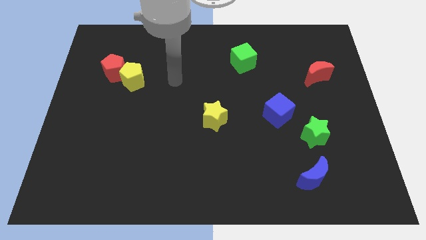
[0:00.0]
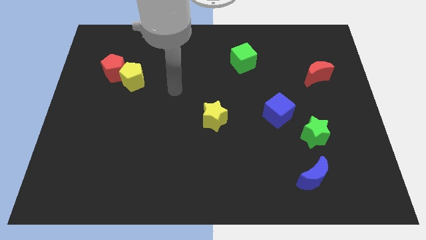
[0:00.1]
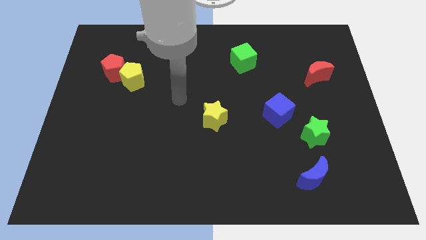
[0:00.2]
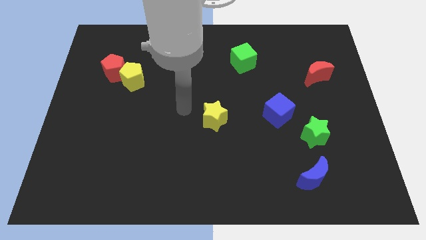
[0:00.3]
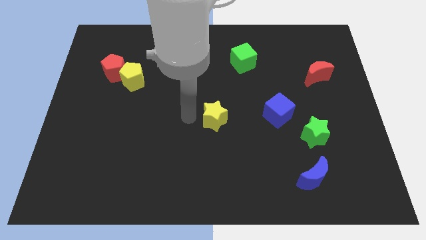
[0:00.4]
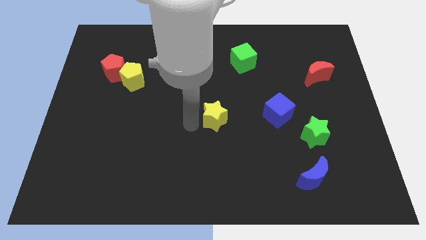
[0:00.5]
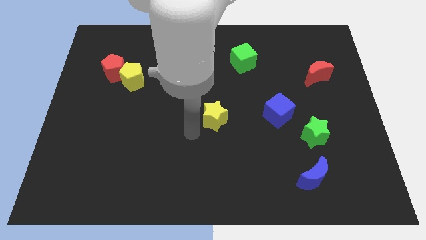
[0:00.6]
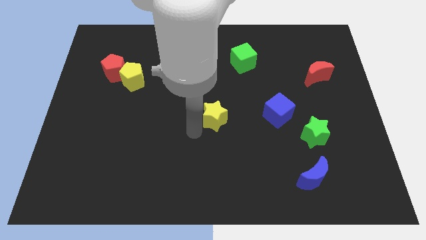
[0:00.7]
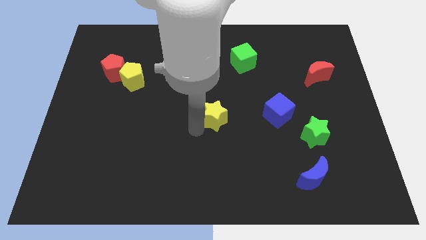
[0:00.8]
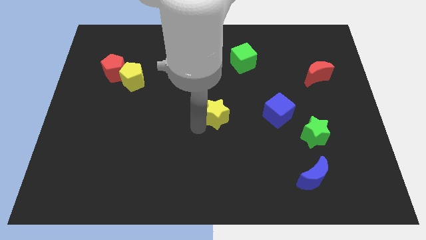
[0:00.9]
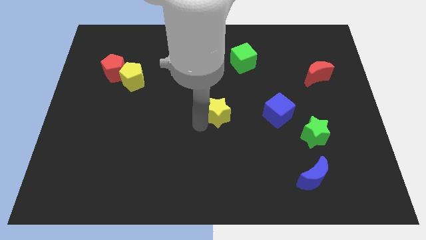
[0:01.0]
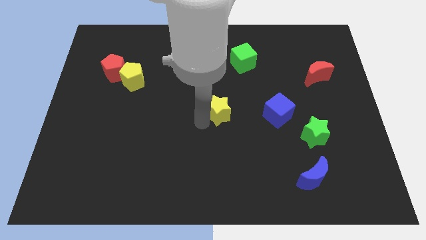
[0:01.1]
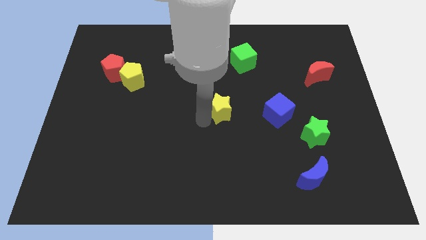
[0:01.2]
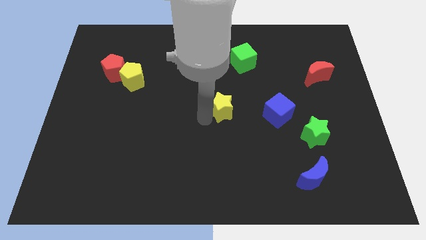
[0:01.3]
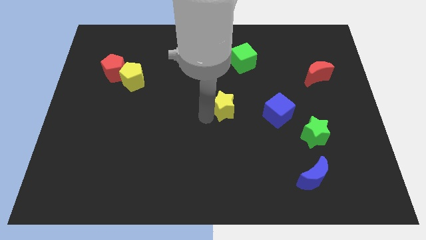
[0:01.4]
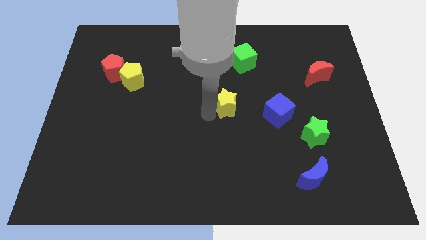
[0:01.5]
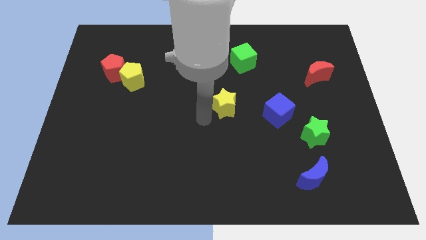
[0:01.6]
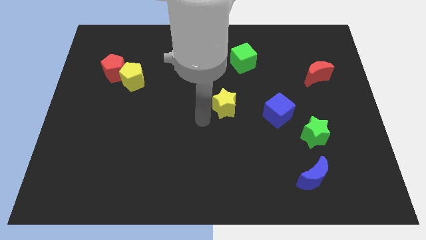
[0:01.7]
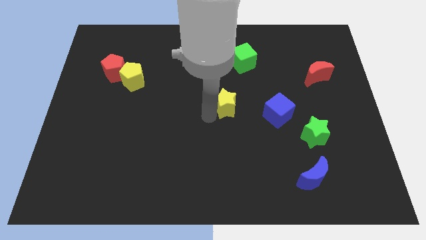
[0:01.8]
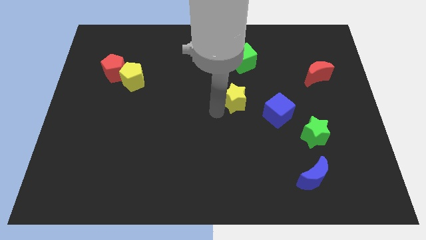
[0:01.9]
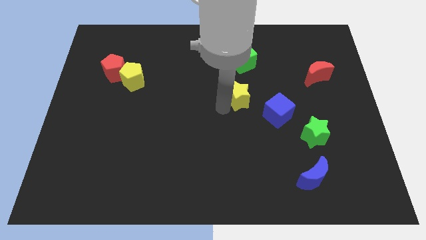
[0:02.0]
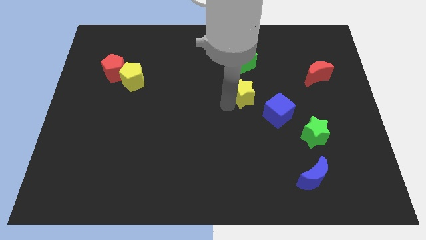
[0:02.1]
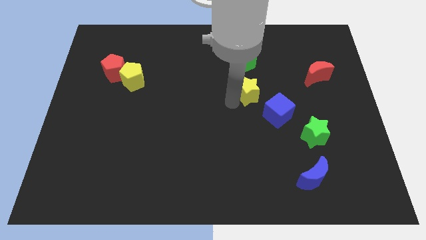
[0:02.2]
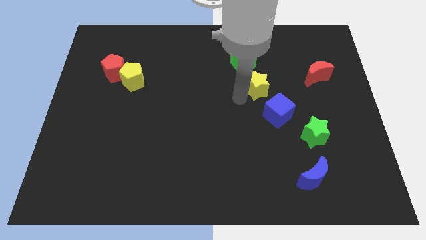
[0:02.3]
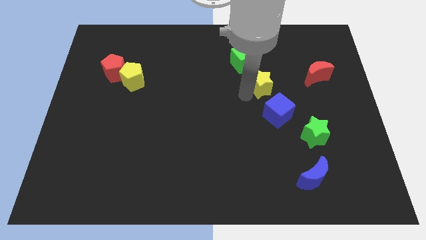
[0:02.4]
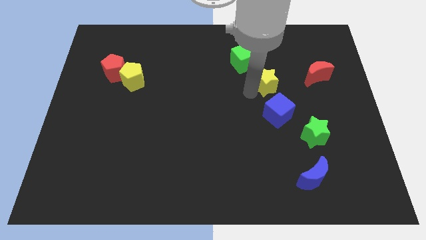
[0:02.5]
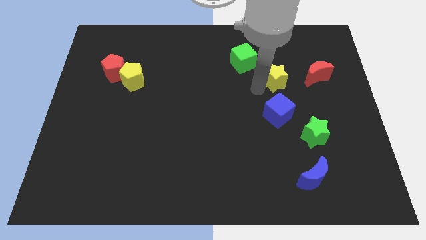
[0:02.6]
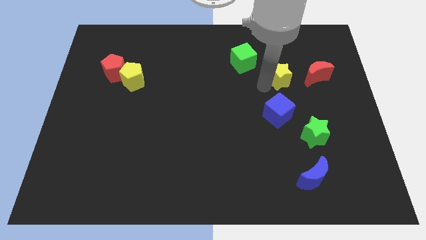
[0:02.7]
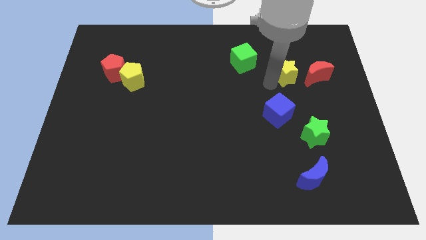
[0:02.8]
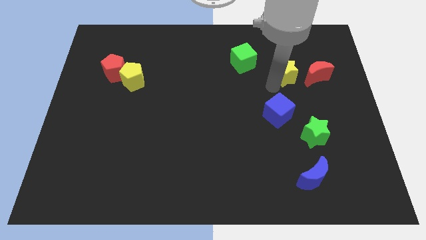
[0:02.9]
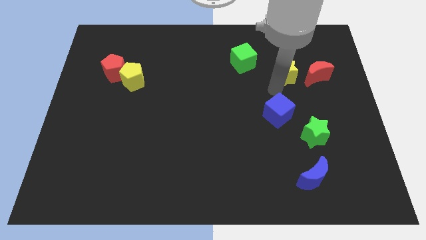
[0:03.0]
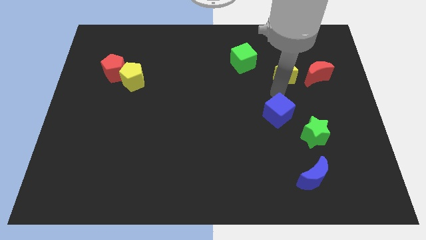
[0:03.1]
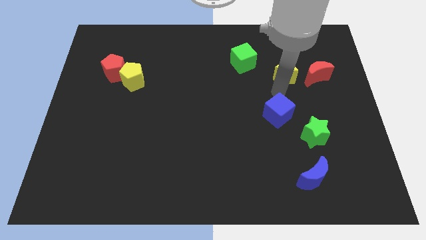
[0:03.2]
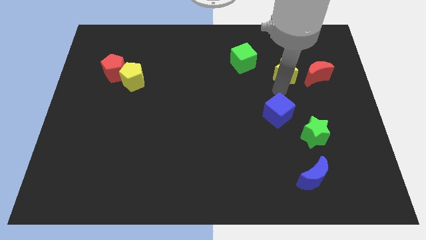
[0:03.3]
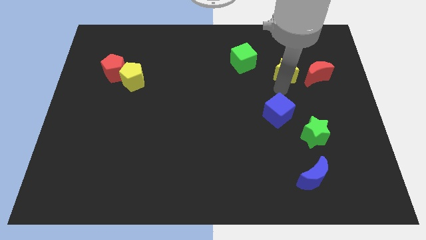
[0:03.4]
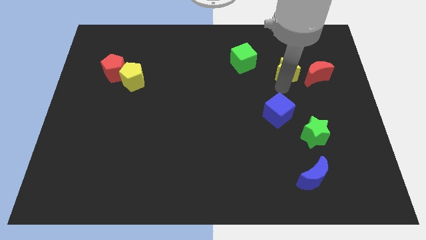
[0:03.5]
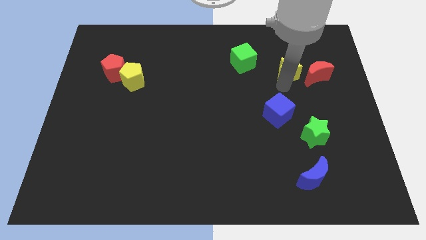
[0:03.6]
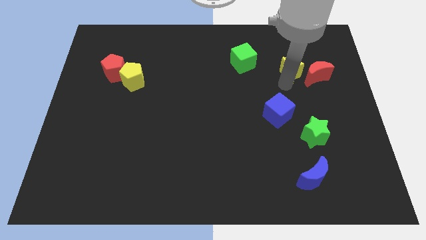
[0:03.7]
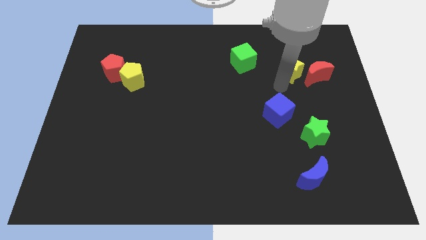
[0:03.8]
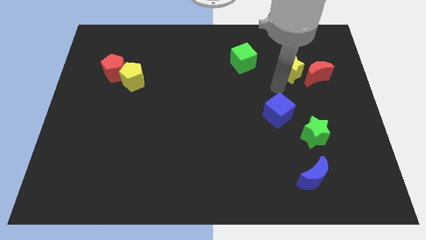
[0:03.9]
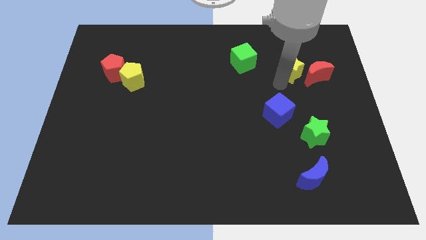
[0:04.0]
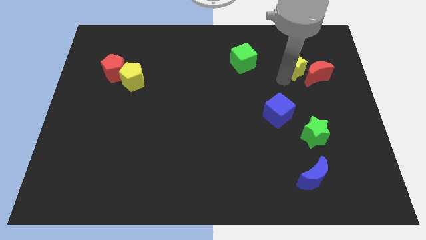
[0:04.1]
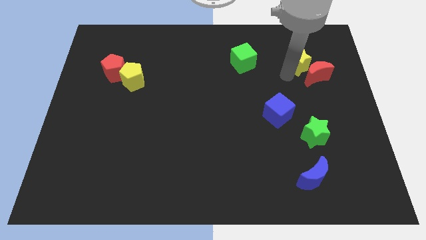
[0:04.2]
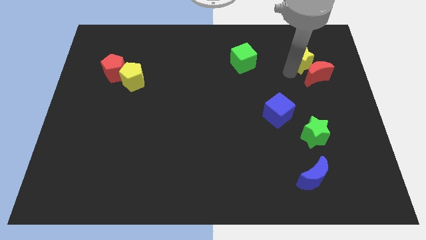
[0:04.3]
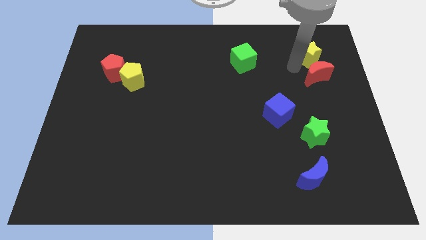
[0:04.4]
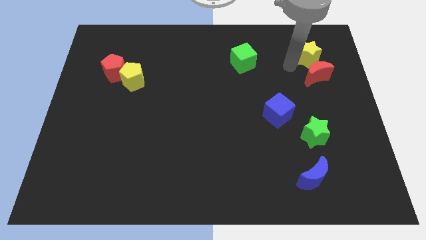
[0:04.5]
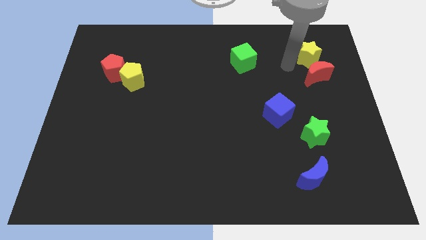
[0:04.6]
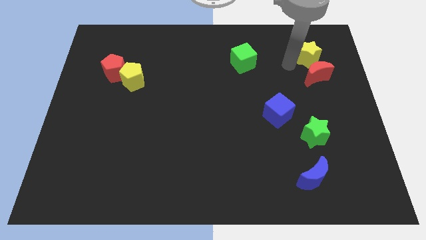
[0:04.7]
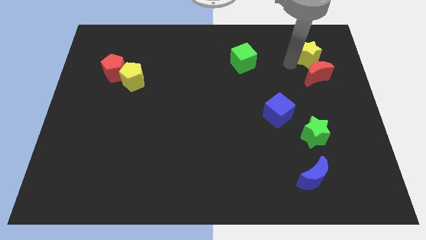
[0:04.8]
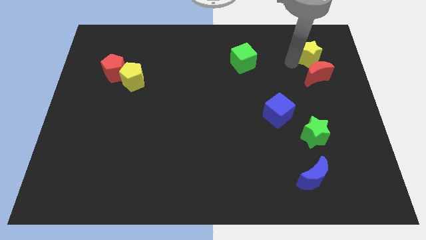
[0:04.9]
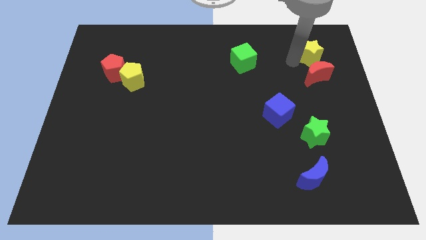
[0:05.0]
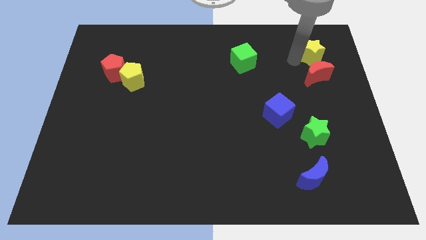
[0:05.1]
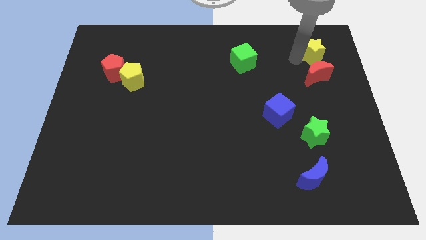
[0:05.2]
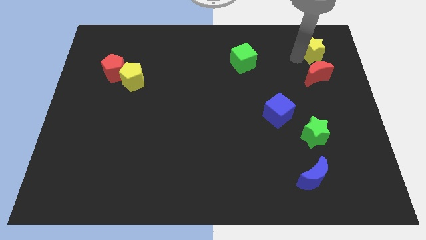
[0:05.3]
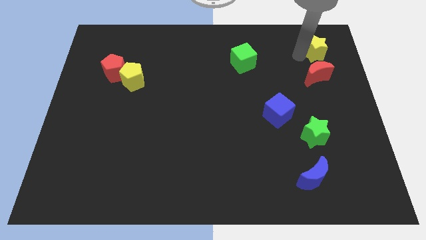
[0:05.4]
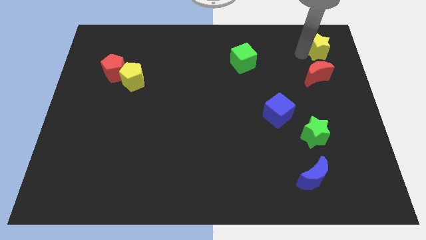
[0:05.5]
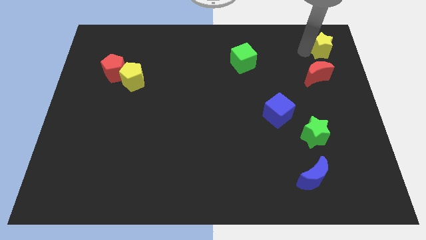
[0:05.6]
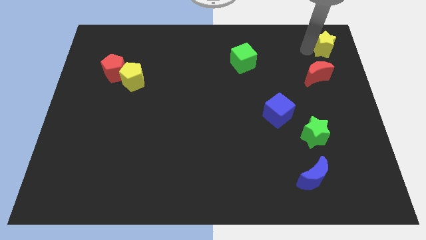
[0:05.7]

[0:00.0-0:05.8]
push the yellow star to the top right of the board
